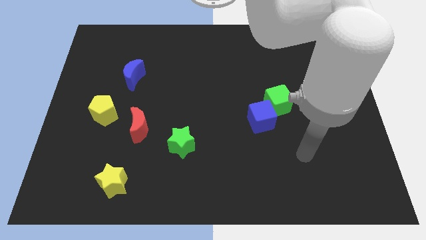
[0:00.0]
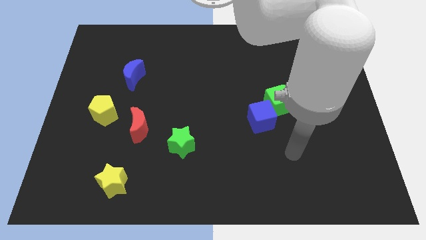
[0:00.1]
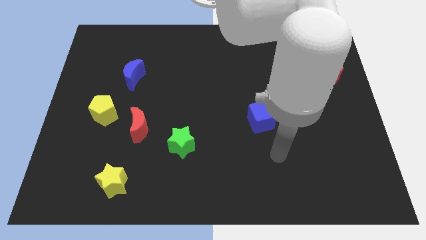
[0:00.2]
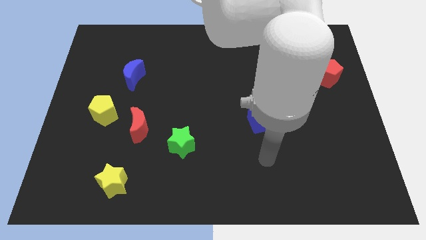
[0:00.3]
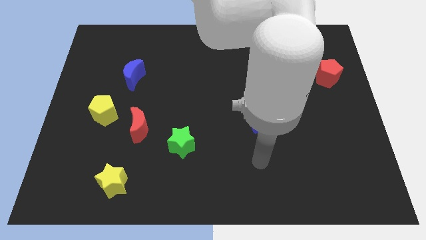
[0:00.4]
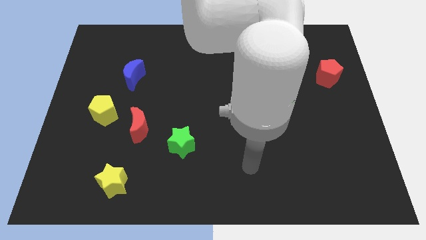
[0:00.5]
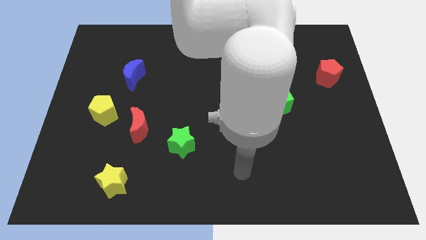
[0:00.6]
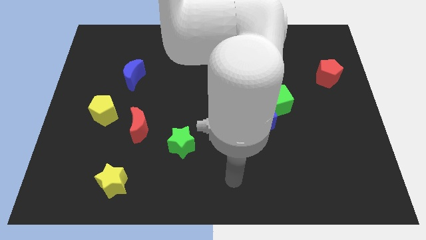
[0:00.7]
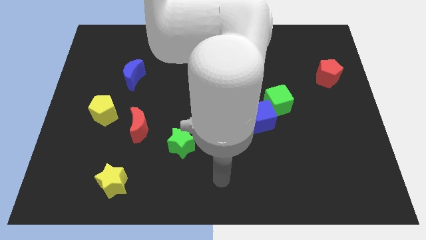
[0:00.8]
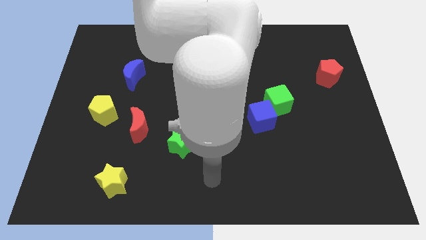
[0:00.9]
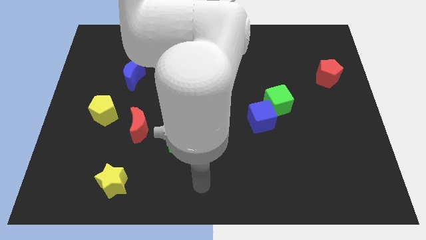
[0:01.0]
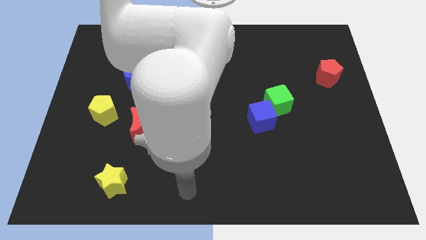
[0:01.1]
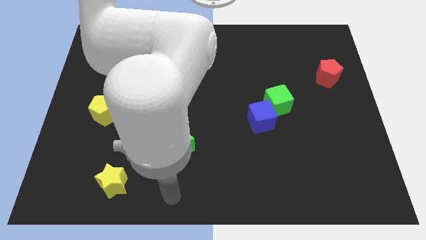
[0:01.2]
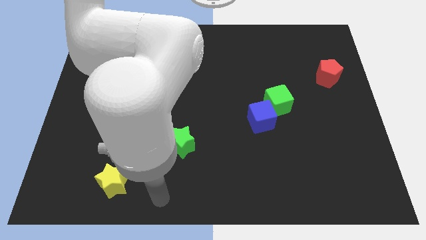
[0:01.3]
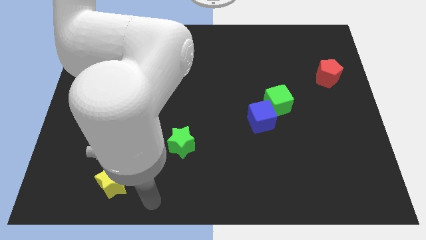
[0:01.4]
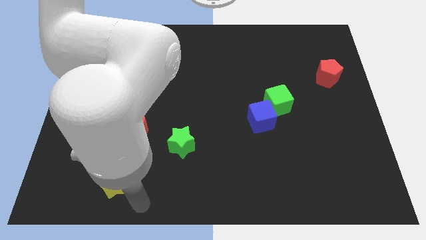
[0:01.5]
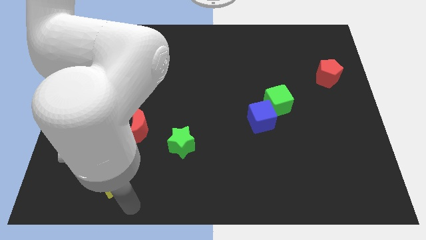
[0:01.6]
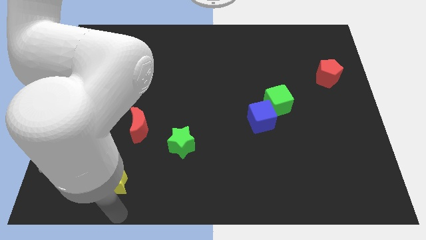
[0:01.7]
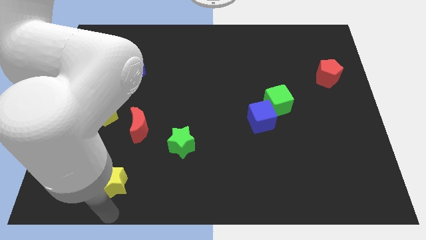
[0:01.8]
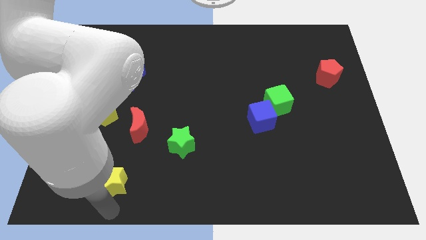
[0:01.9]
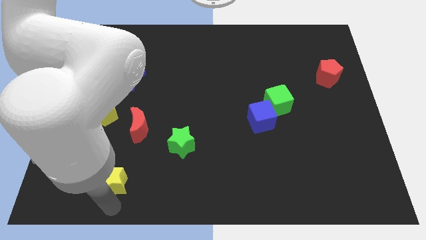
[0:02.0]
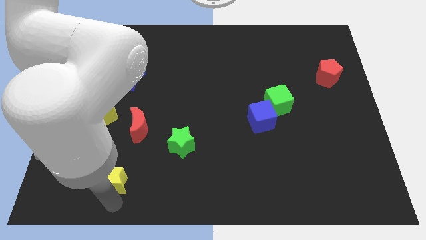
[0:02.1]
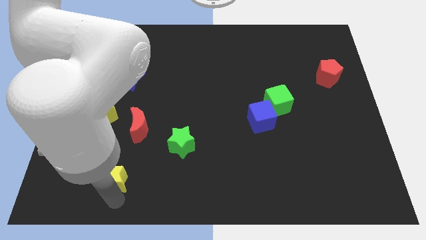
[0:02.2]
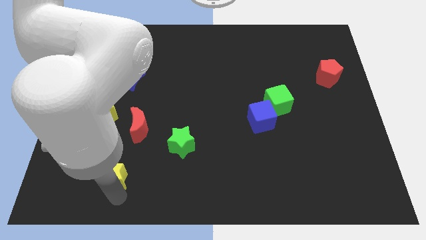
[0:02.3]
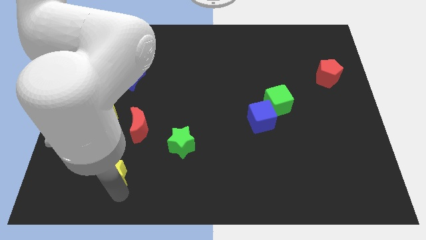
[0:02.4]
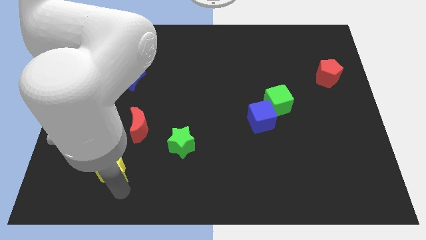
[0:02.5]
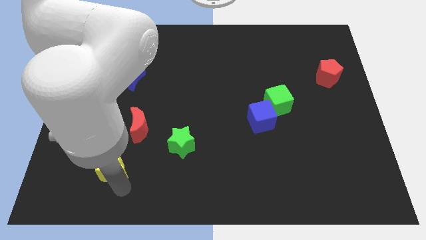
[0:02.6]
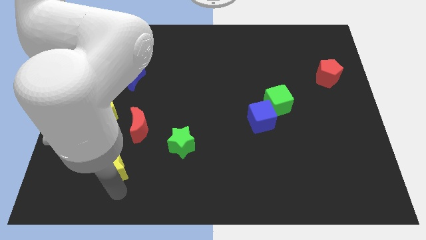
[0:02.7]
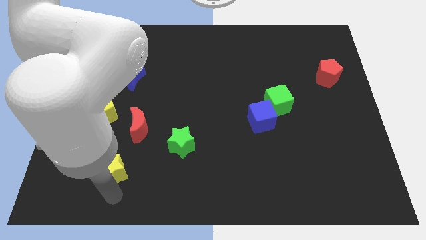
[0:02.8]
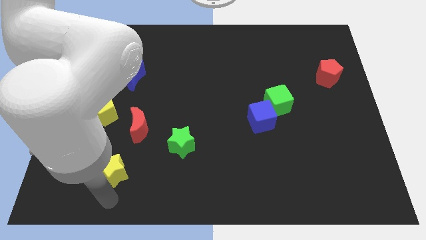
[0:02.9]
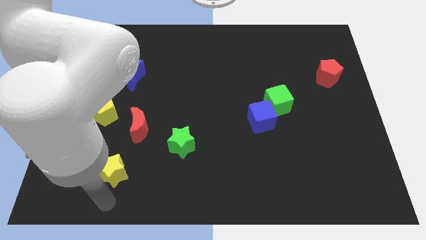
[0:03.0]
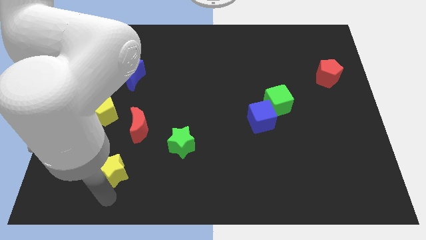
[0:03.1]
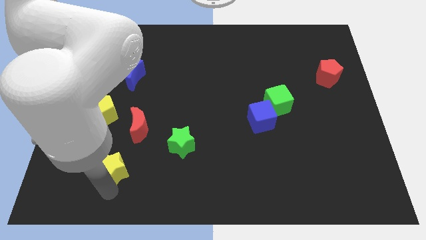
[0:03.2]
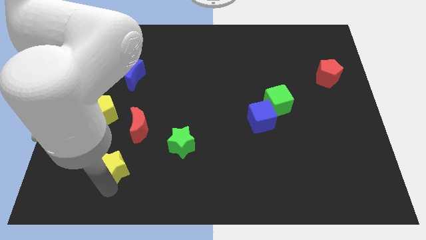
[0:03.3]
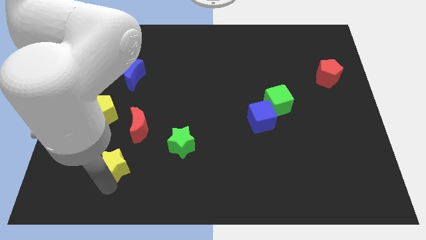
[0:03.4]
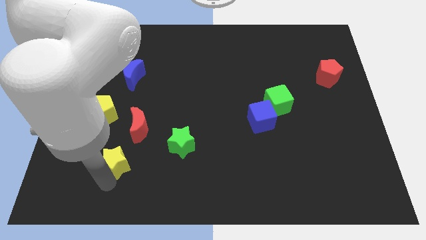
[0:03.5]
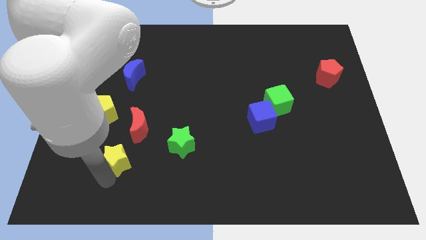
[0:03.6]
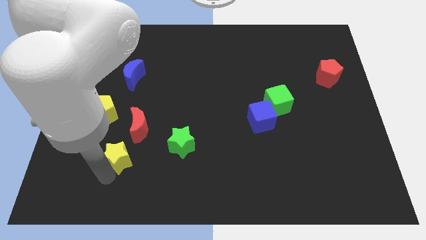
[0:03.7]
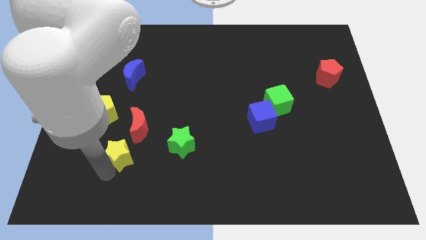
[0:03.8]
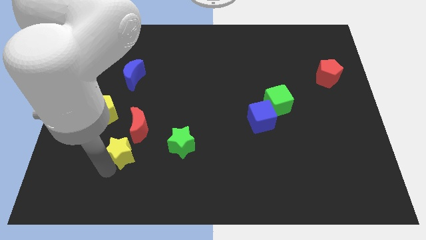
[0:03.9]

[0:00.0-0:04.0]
push the yellow star upwards a bit

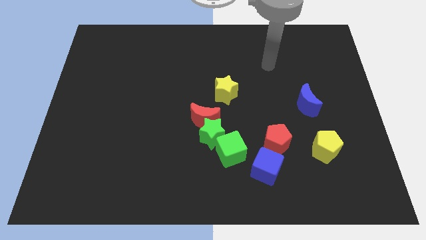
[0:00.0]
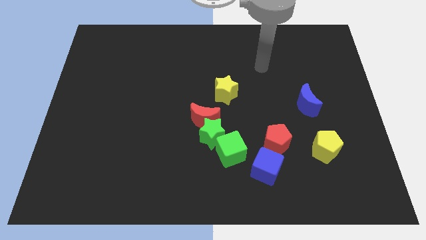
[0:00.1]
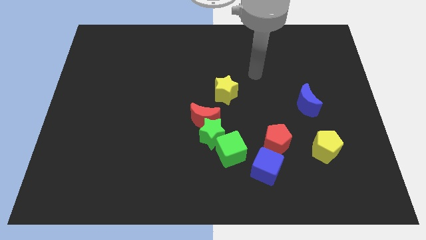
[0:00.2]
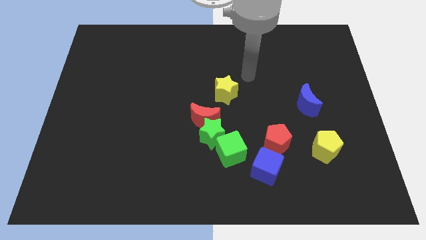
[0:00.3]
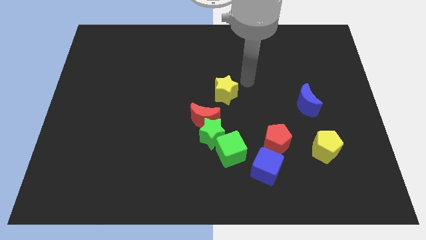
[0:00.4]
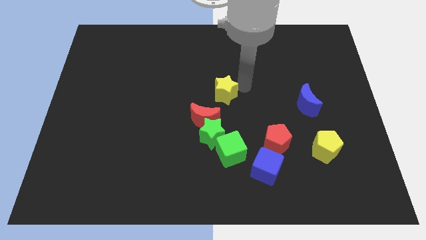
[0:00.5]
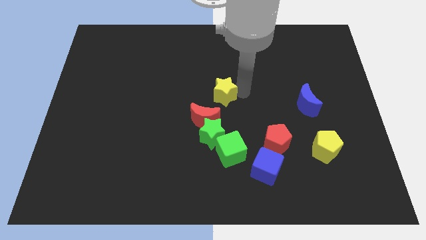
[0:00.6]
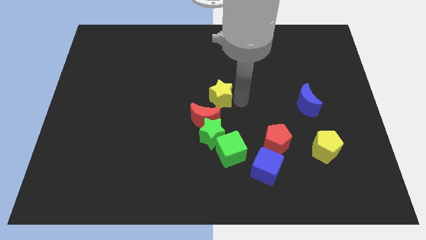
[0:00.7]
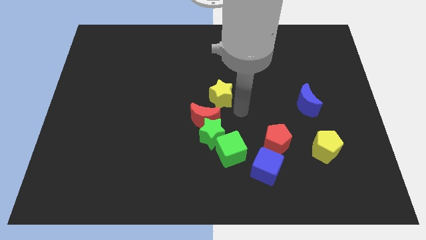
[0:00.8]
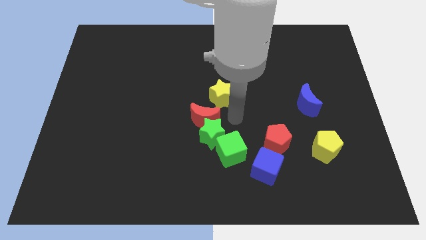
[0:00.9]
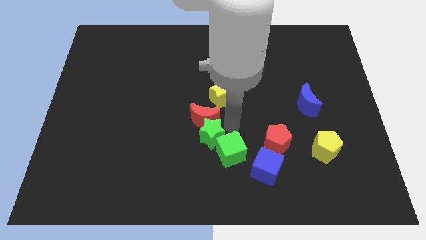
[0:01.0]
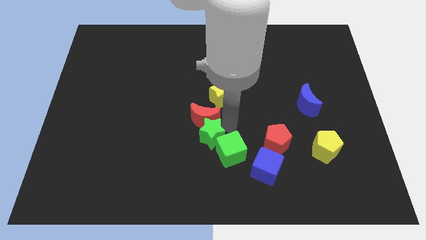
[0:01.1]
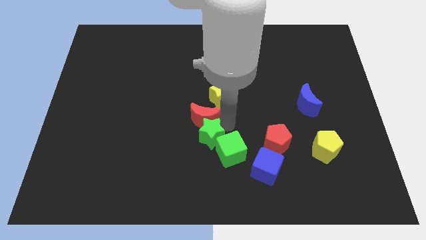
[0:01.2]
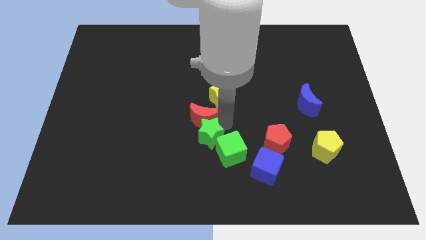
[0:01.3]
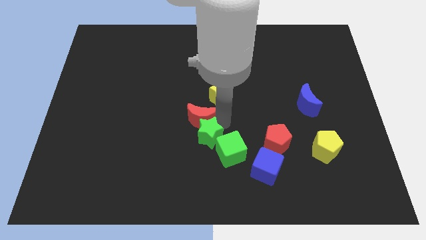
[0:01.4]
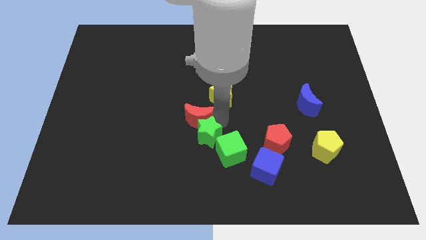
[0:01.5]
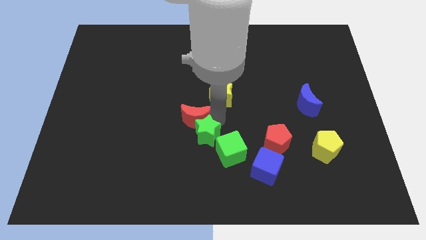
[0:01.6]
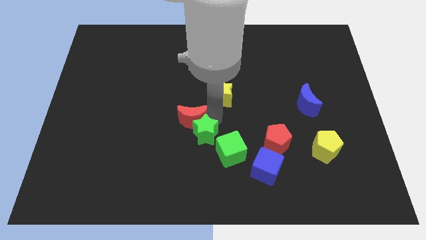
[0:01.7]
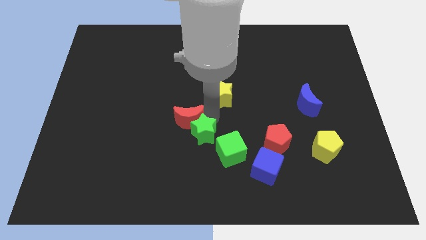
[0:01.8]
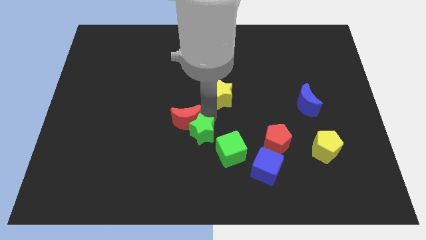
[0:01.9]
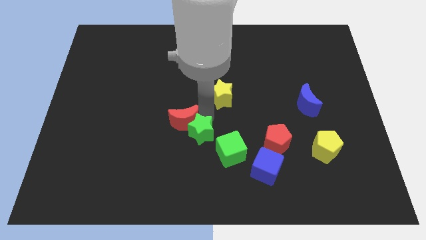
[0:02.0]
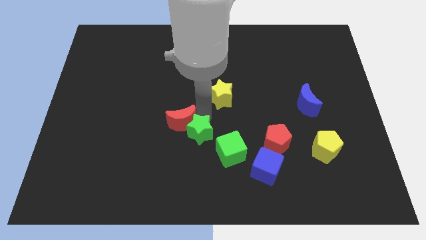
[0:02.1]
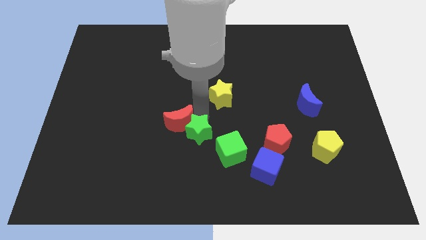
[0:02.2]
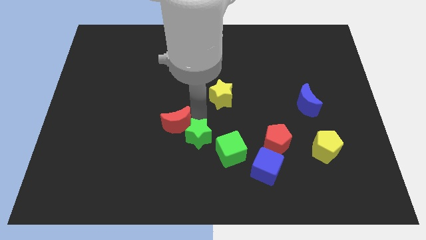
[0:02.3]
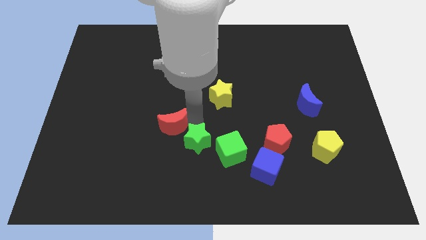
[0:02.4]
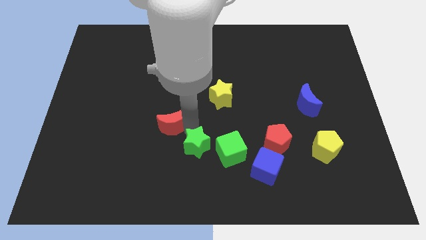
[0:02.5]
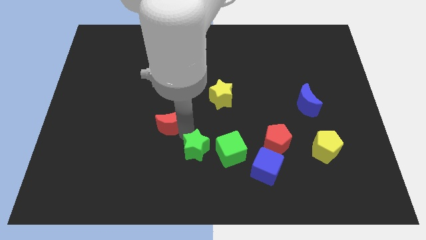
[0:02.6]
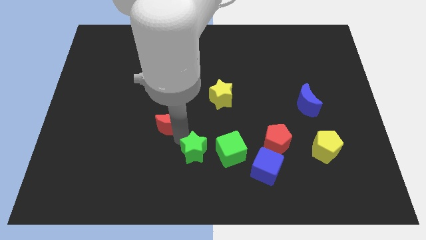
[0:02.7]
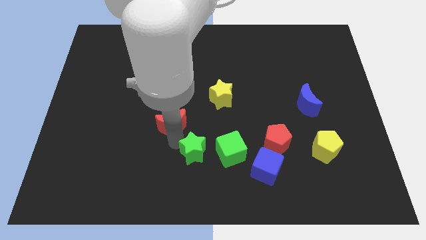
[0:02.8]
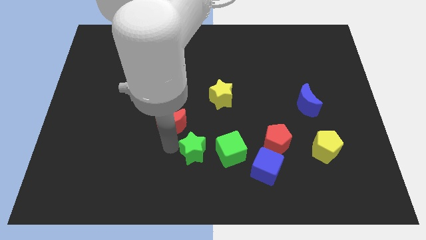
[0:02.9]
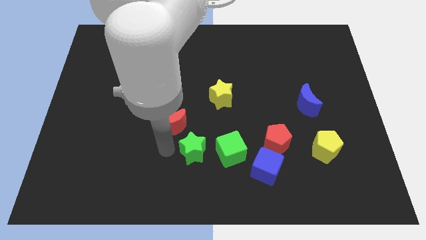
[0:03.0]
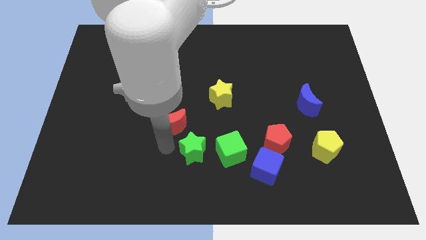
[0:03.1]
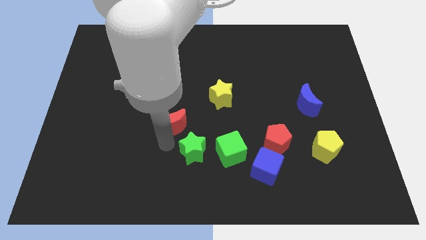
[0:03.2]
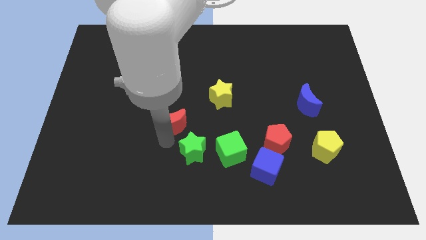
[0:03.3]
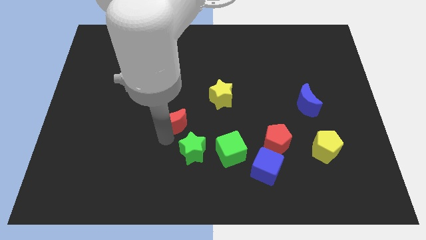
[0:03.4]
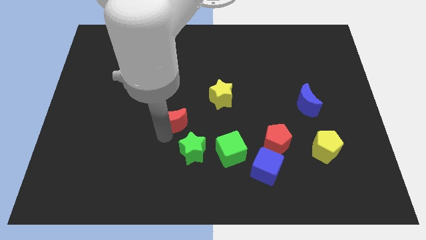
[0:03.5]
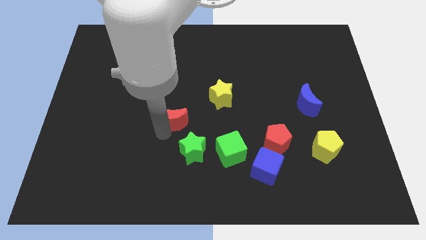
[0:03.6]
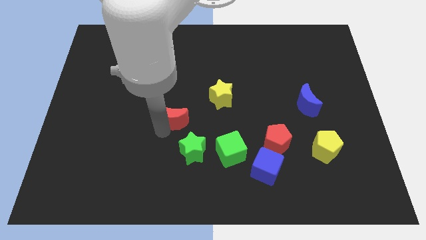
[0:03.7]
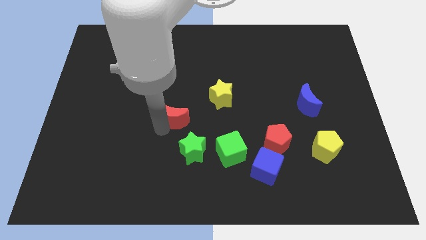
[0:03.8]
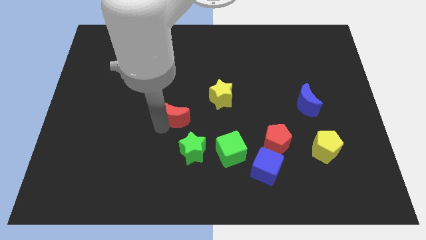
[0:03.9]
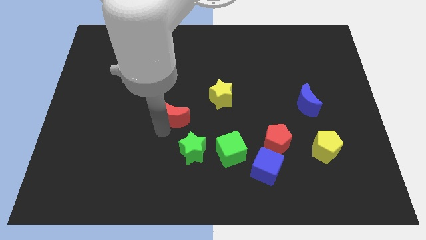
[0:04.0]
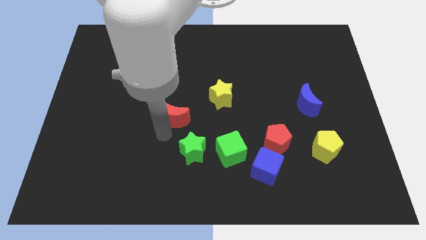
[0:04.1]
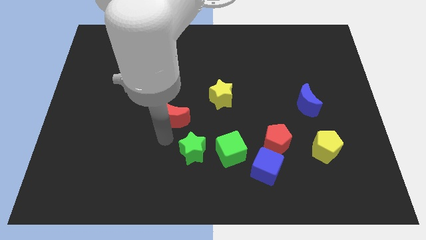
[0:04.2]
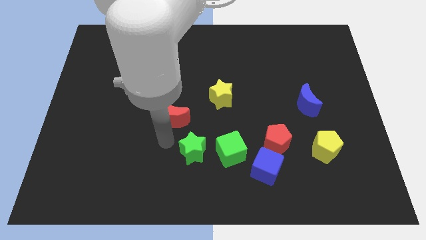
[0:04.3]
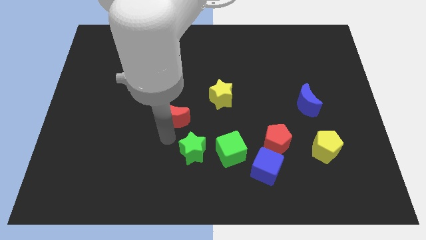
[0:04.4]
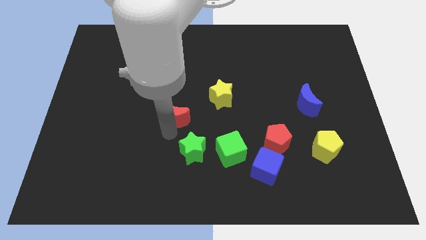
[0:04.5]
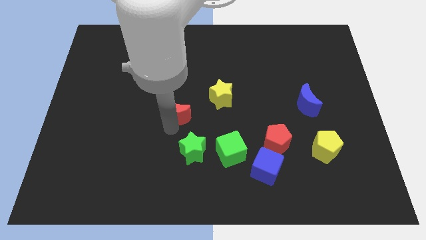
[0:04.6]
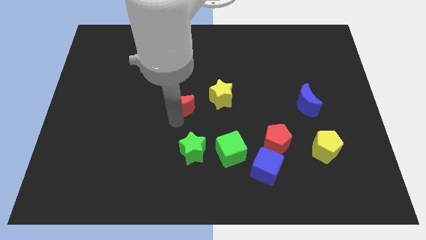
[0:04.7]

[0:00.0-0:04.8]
slightly move the red moon up and left diagonally
